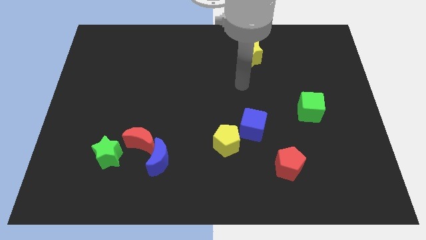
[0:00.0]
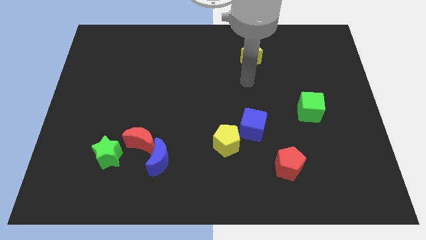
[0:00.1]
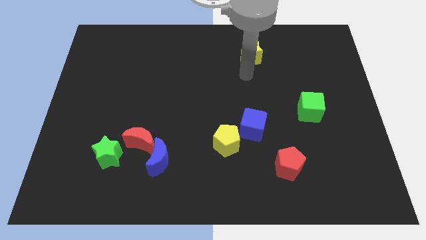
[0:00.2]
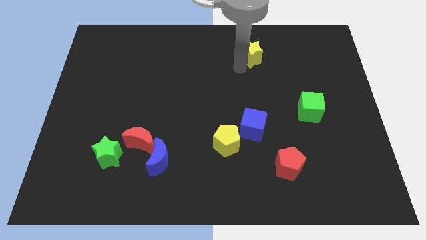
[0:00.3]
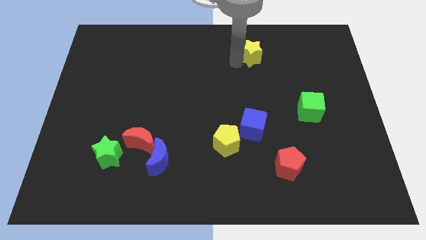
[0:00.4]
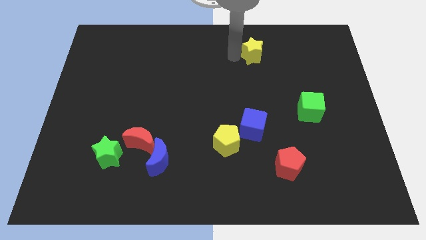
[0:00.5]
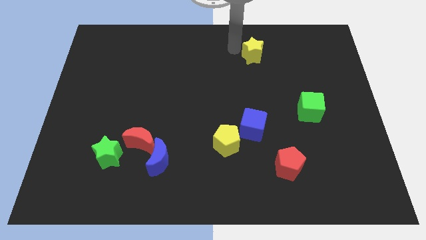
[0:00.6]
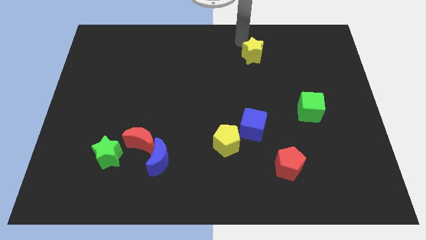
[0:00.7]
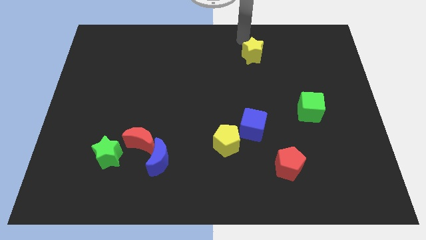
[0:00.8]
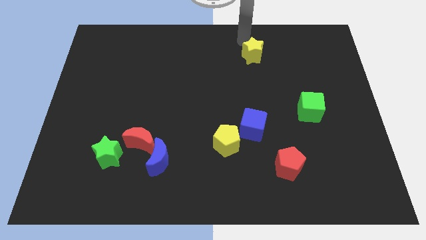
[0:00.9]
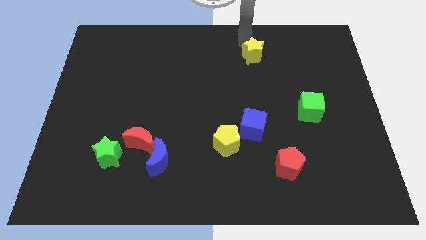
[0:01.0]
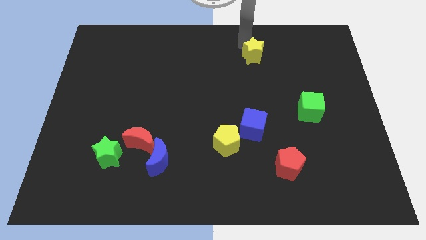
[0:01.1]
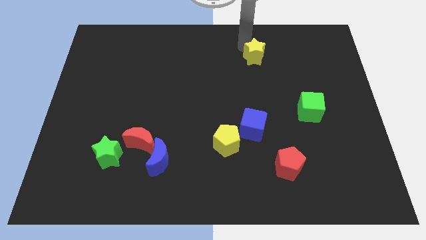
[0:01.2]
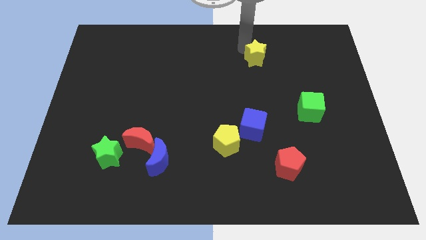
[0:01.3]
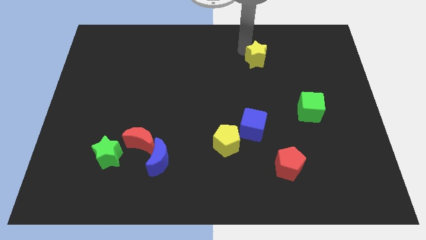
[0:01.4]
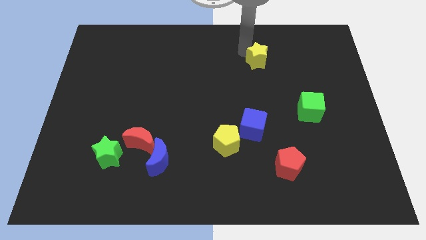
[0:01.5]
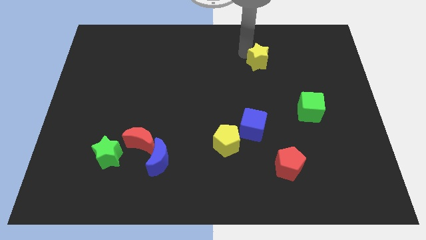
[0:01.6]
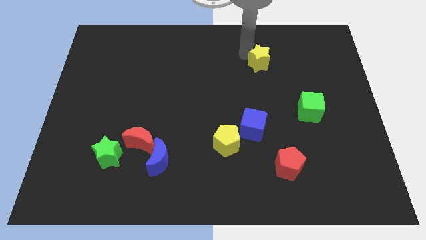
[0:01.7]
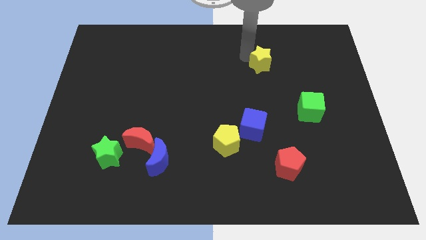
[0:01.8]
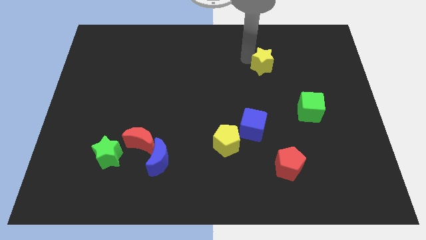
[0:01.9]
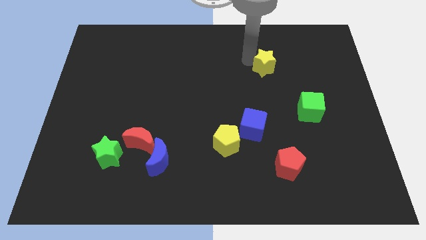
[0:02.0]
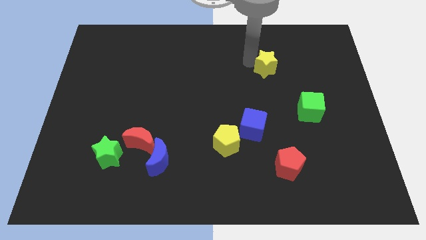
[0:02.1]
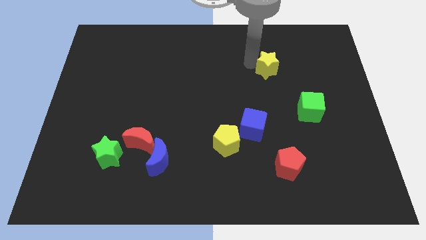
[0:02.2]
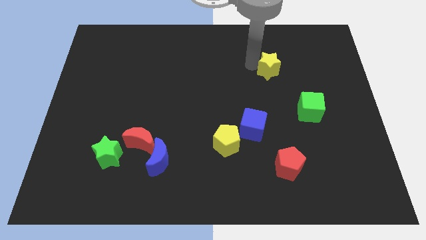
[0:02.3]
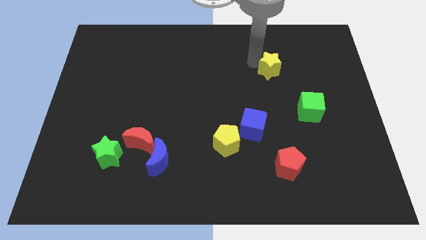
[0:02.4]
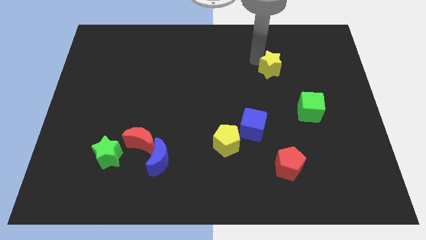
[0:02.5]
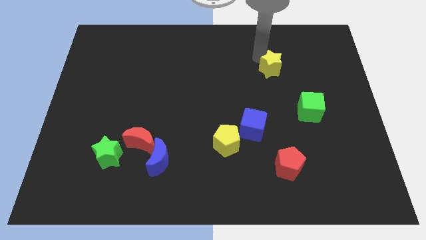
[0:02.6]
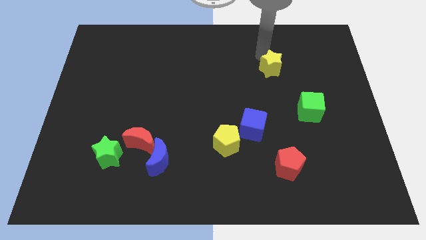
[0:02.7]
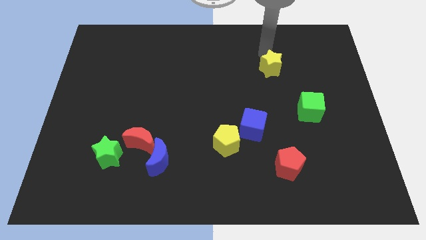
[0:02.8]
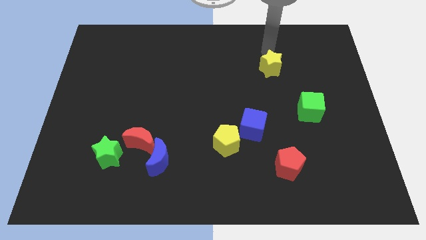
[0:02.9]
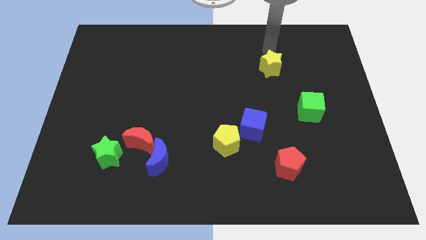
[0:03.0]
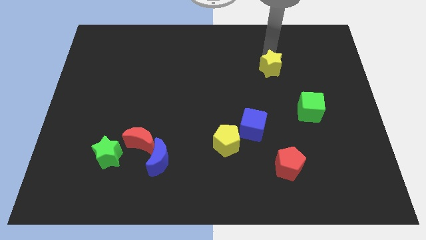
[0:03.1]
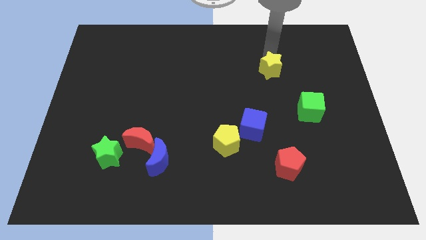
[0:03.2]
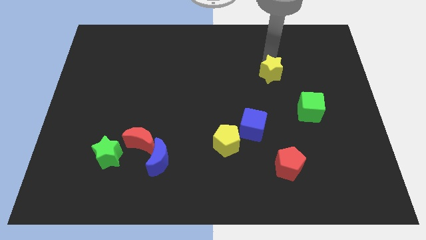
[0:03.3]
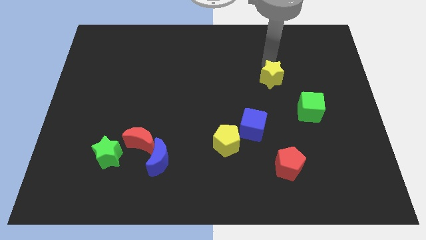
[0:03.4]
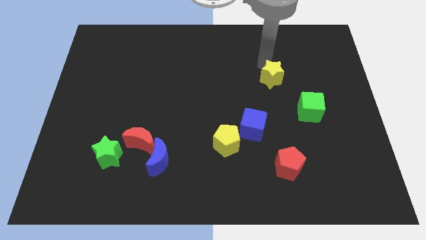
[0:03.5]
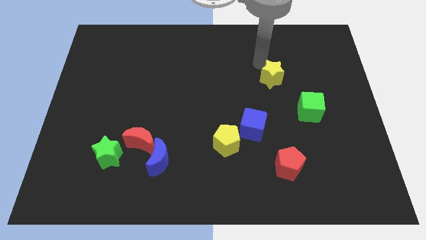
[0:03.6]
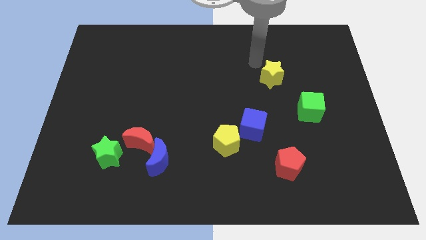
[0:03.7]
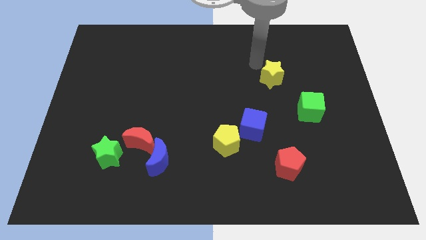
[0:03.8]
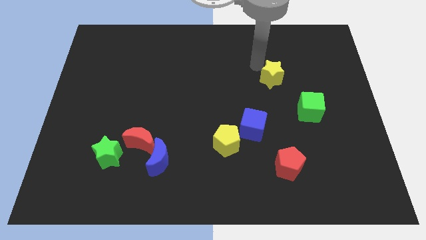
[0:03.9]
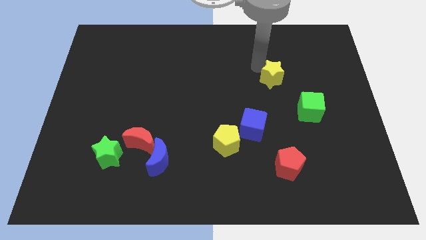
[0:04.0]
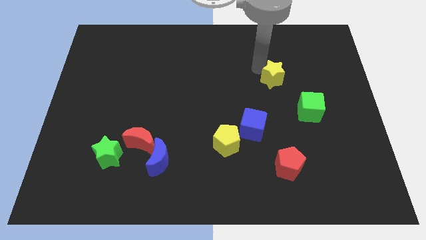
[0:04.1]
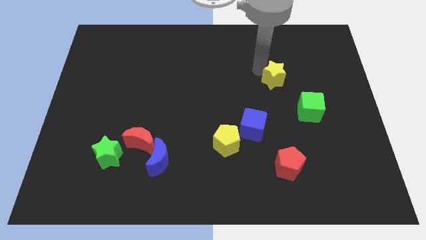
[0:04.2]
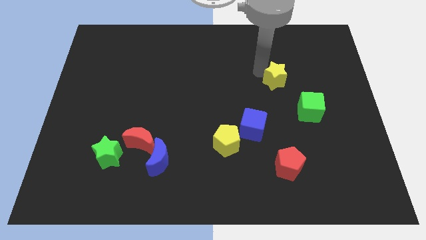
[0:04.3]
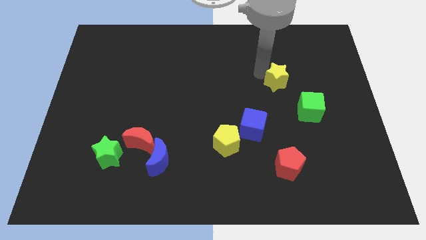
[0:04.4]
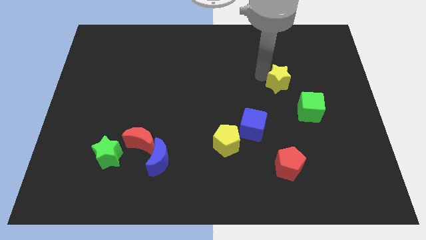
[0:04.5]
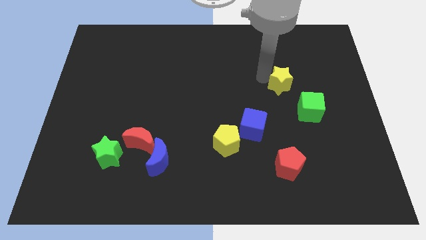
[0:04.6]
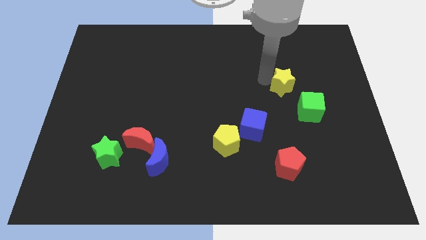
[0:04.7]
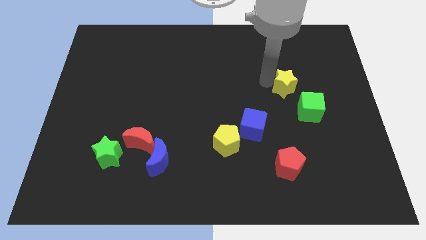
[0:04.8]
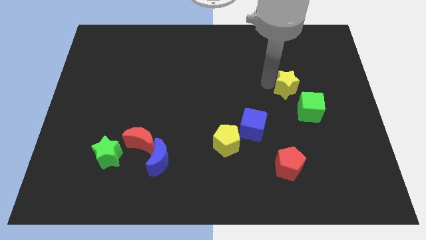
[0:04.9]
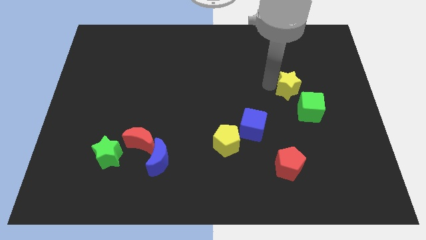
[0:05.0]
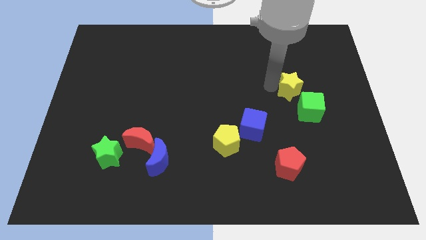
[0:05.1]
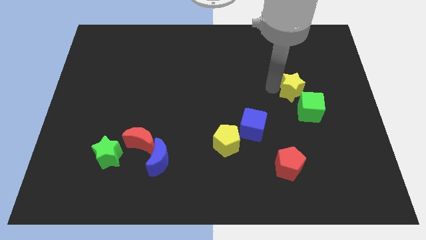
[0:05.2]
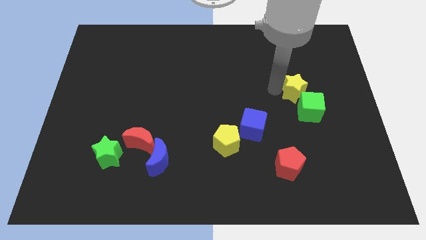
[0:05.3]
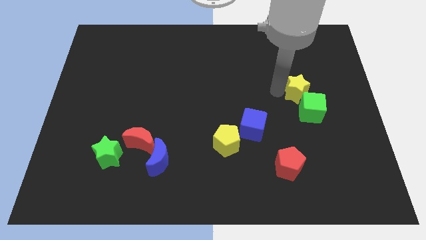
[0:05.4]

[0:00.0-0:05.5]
move the yellow star towards the green cube
